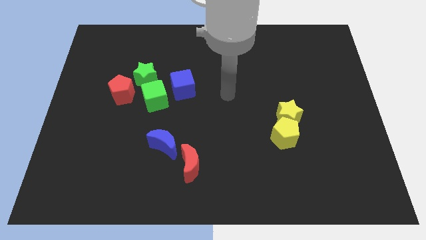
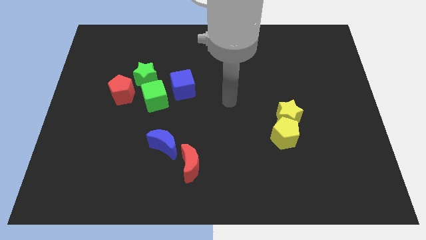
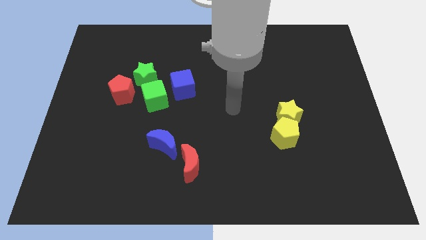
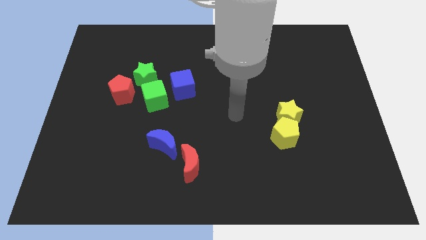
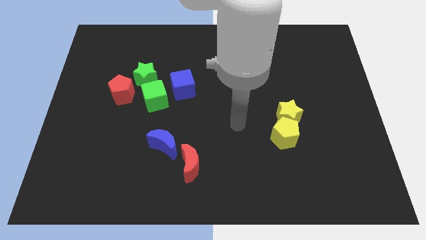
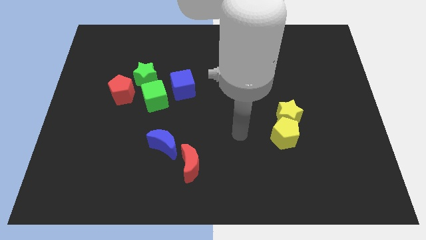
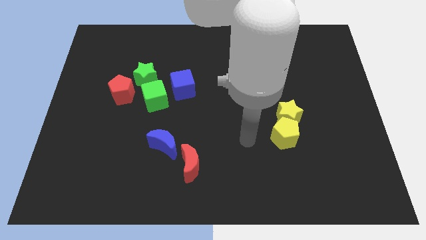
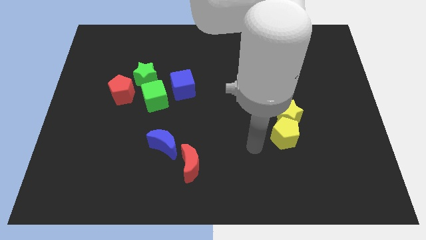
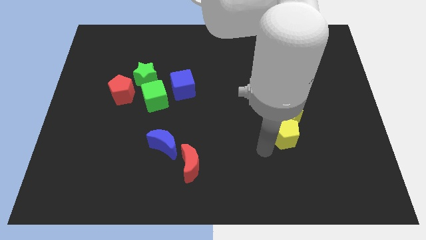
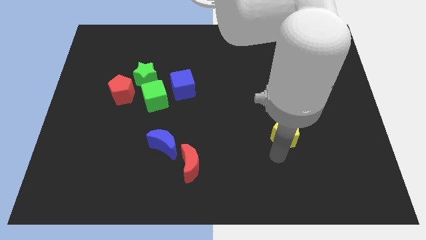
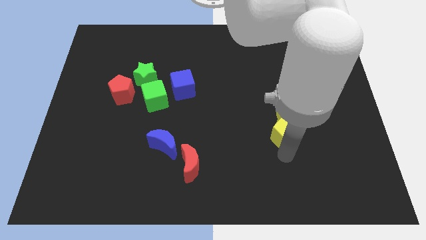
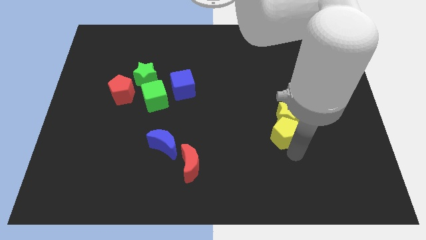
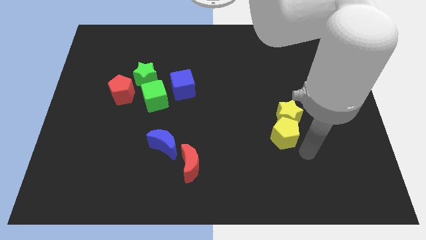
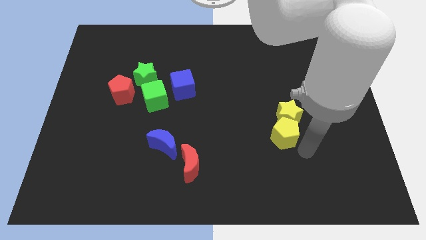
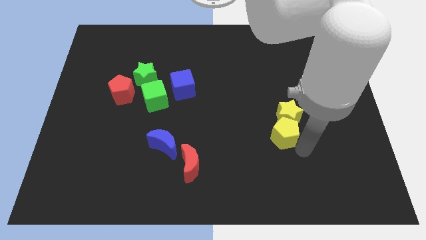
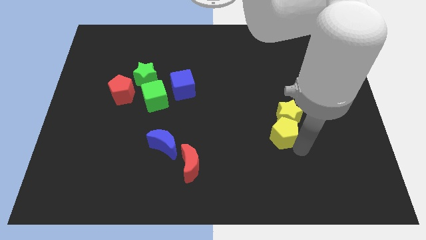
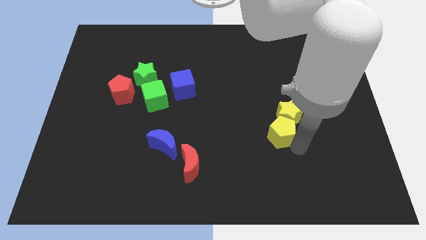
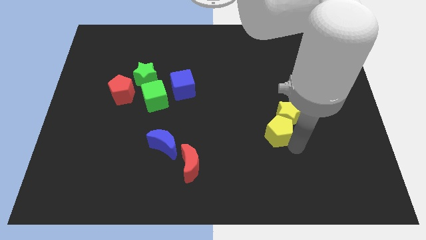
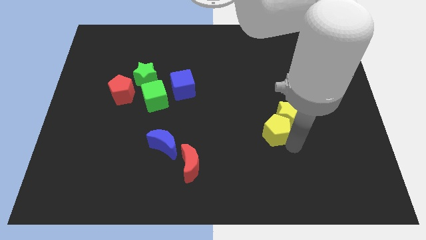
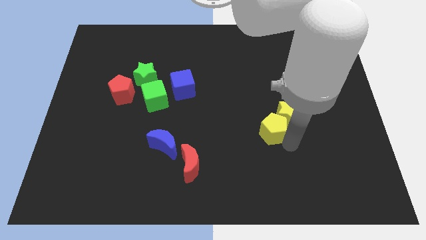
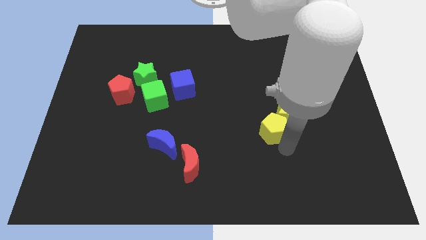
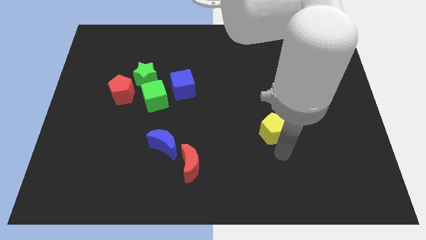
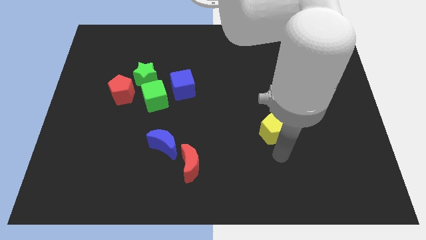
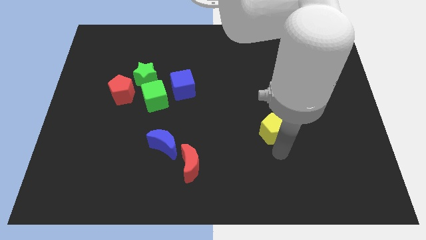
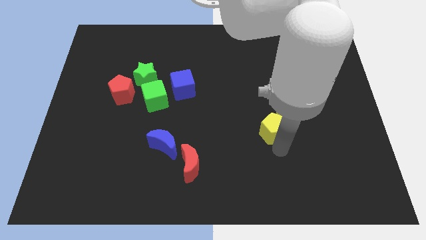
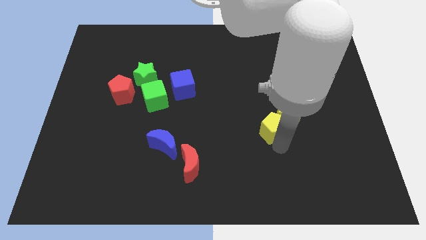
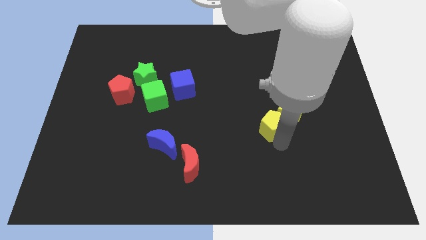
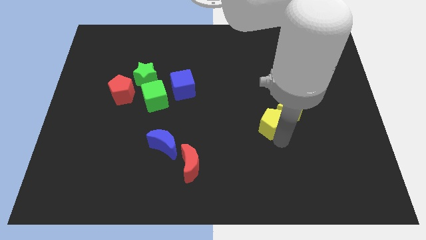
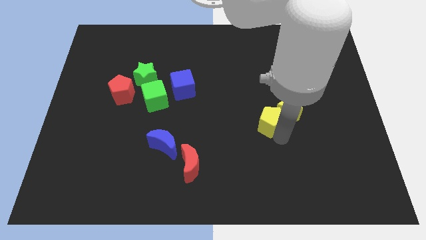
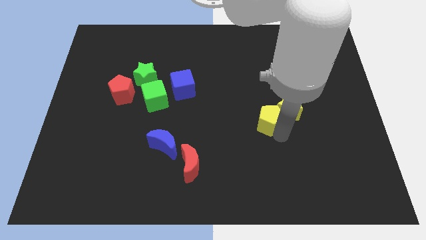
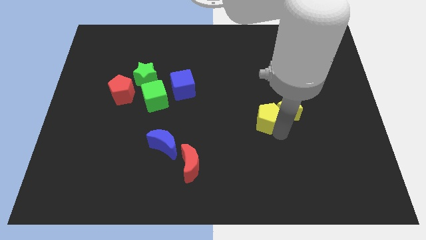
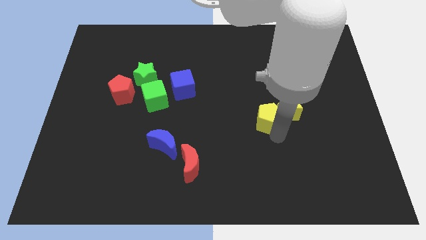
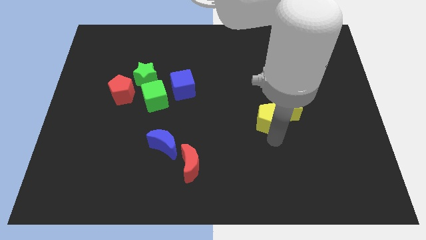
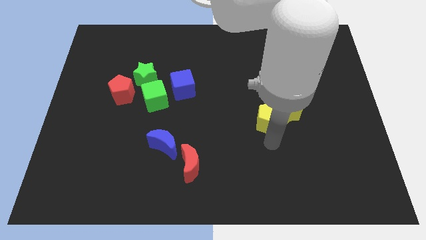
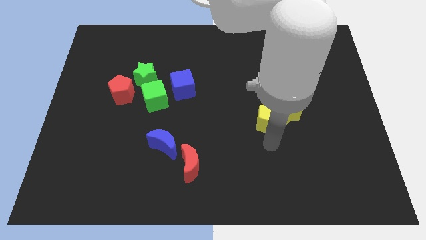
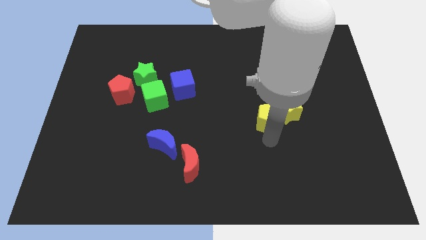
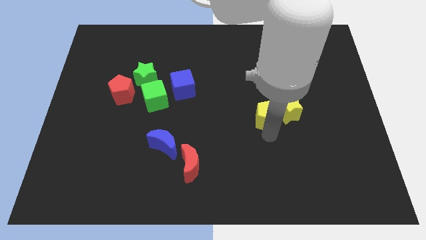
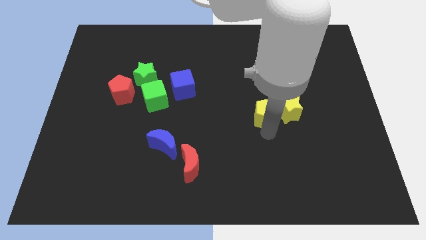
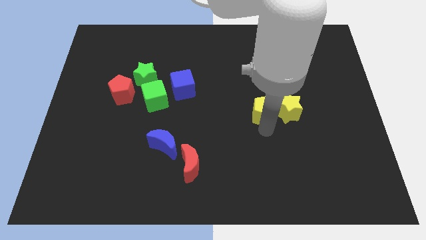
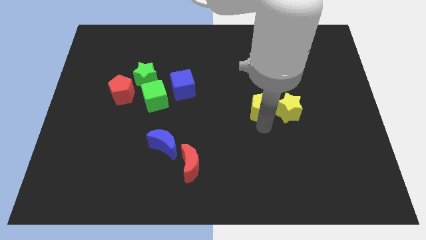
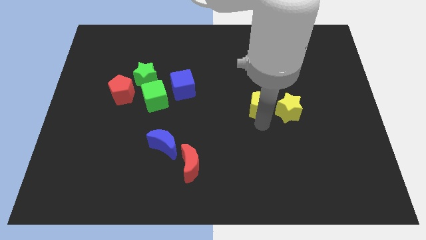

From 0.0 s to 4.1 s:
push the yellow pentagon upwards a bit

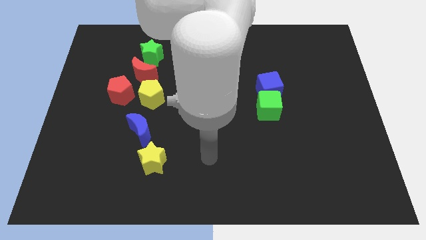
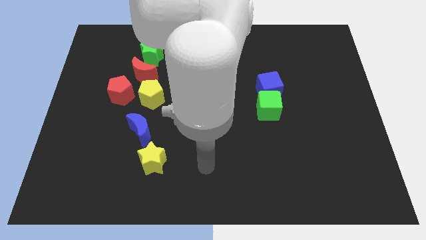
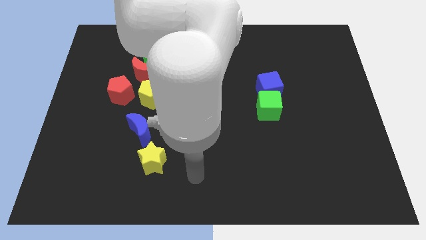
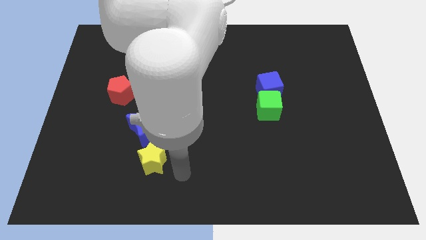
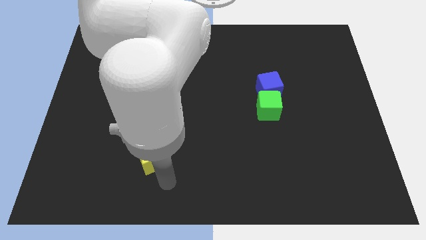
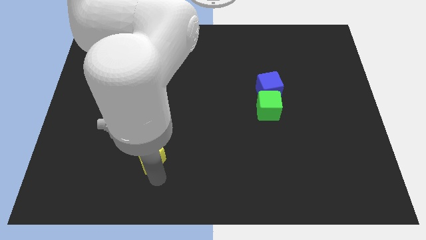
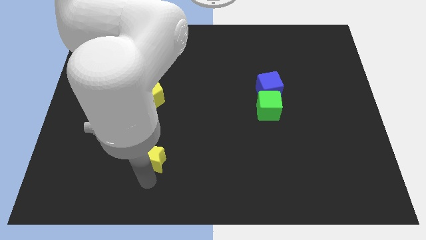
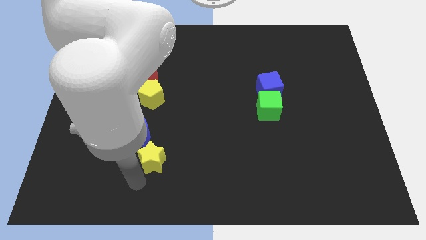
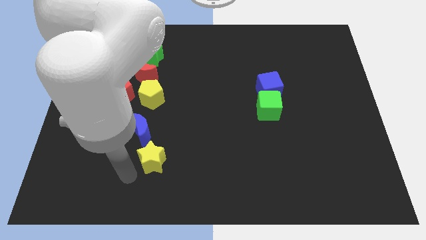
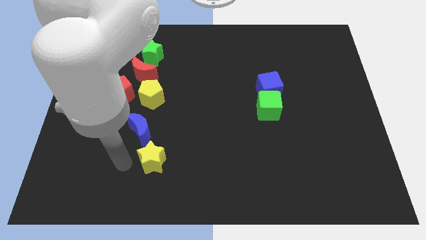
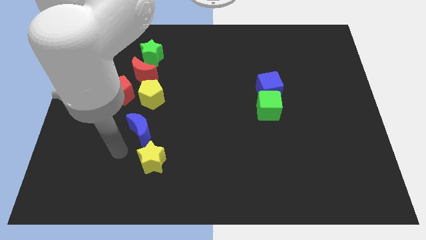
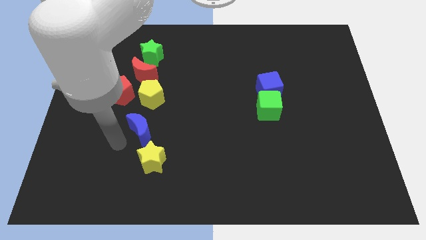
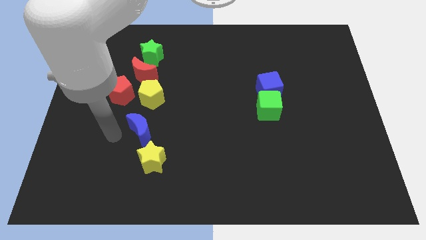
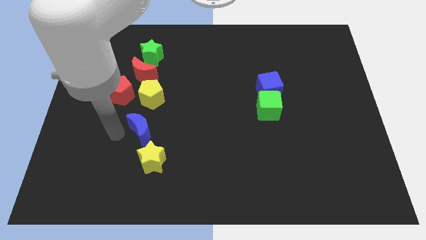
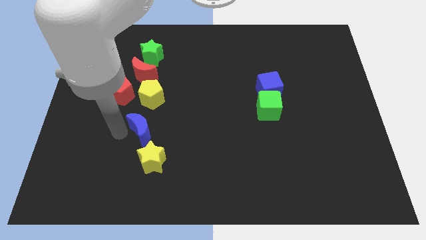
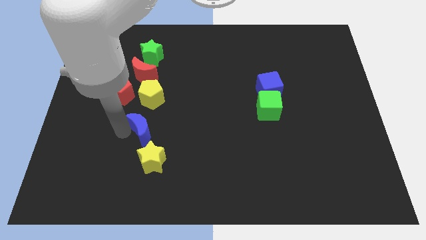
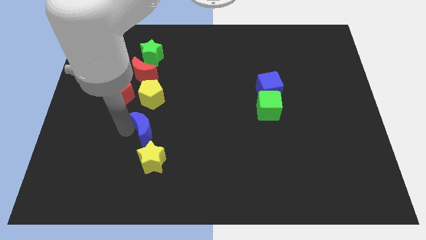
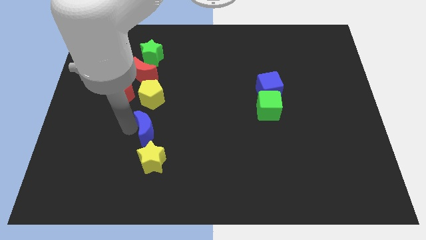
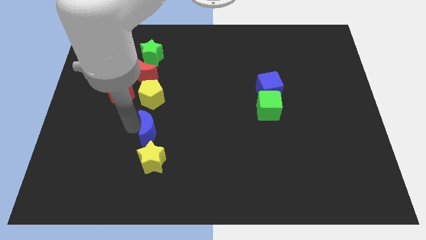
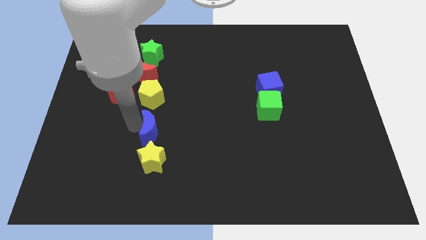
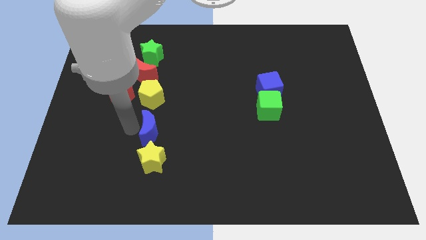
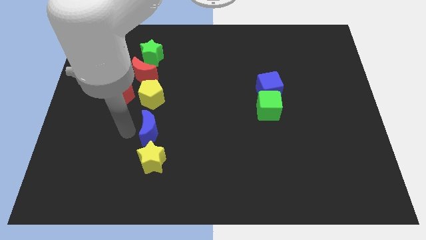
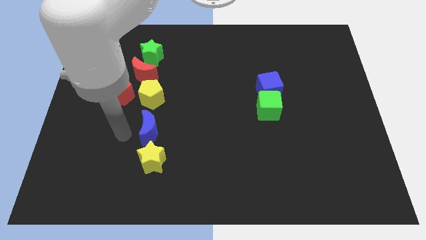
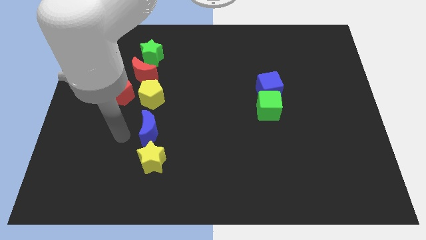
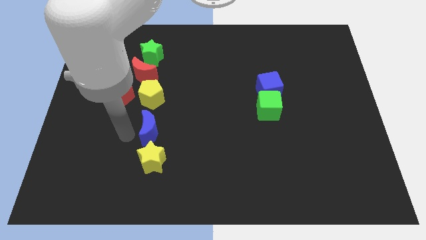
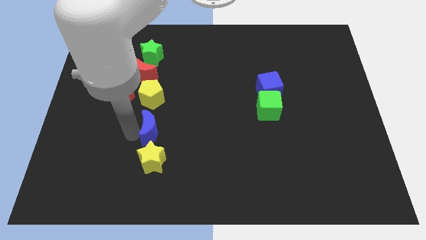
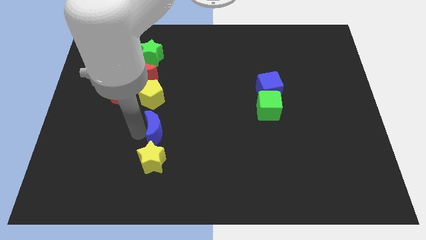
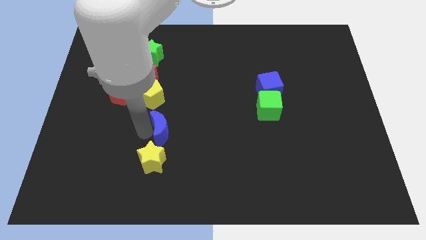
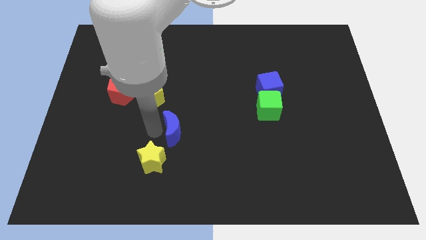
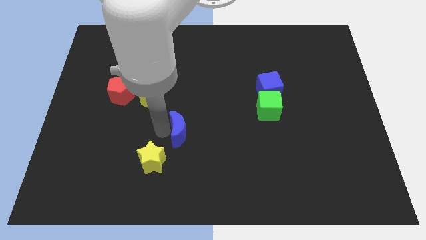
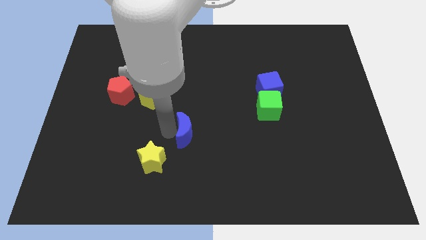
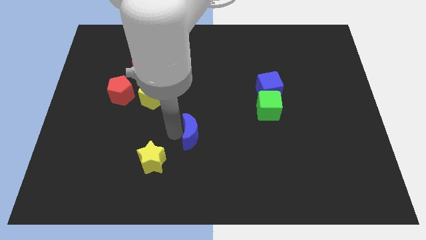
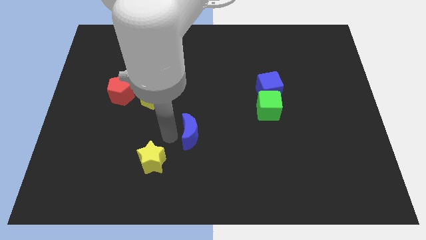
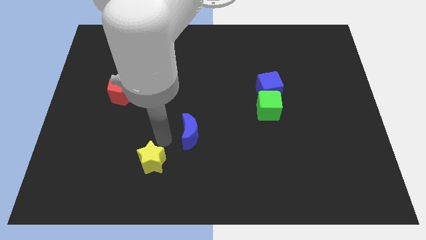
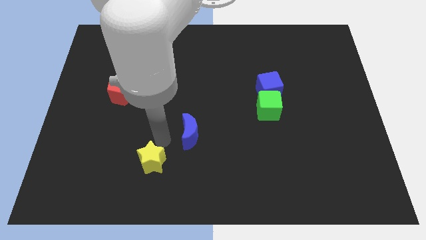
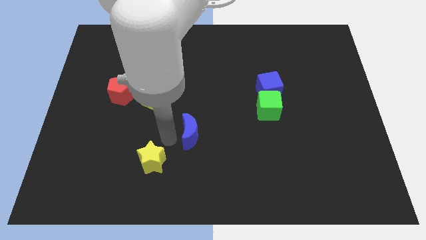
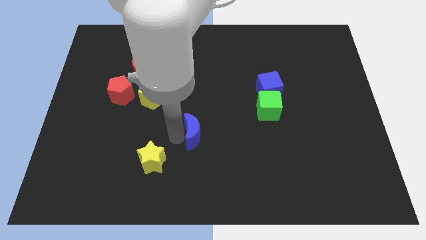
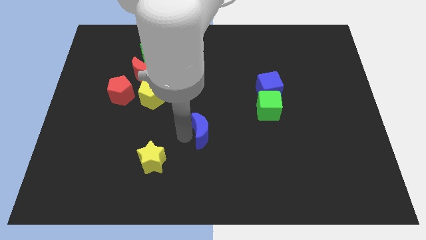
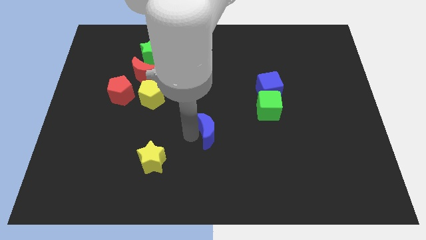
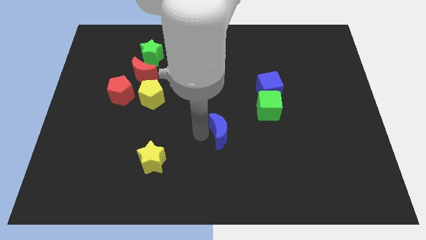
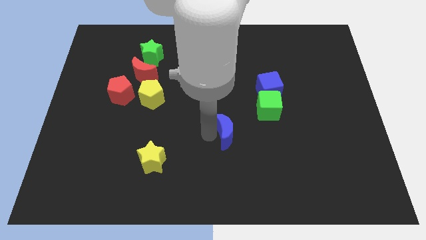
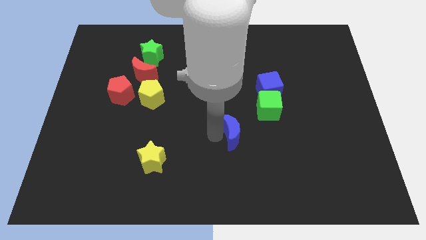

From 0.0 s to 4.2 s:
move the blue moon to the right

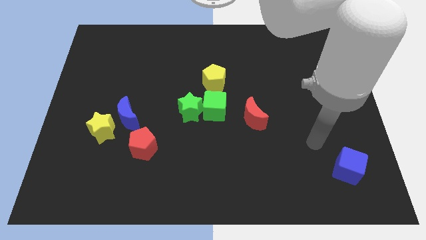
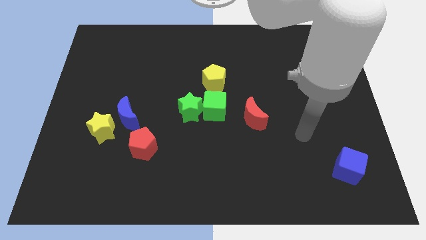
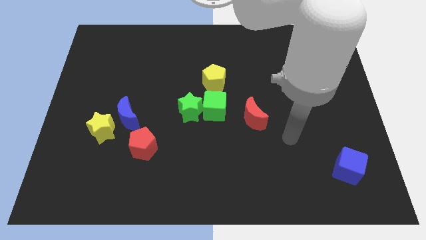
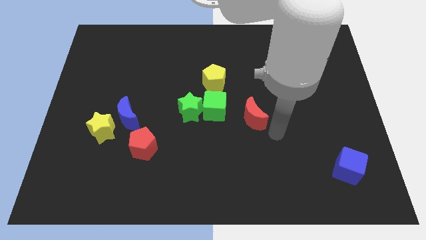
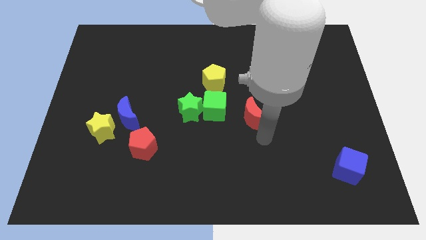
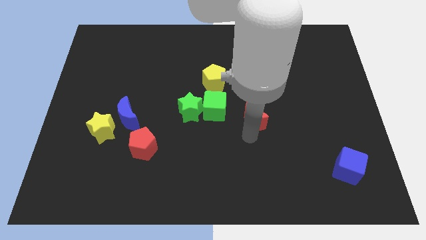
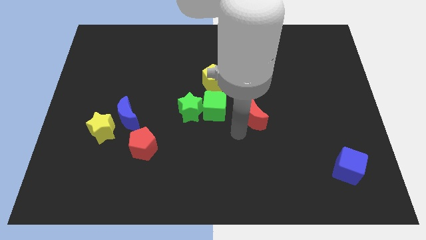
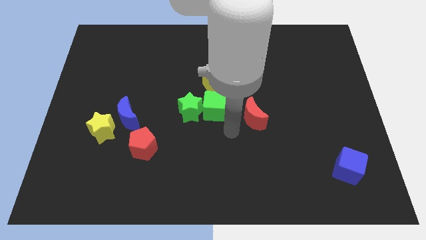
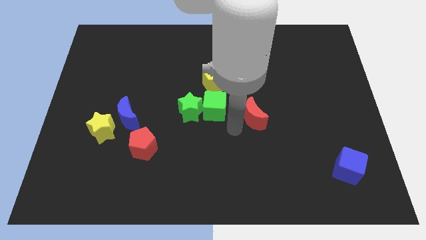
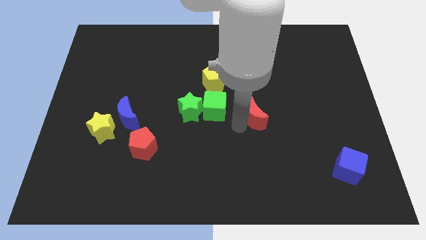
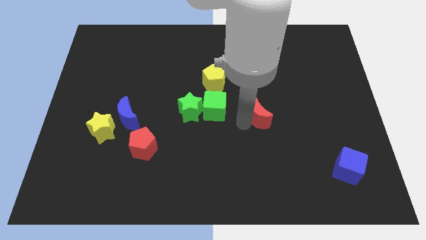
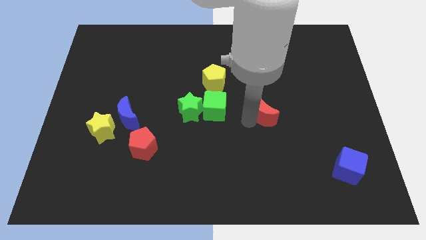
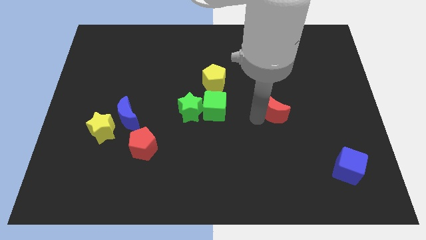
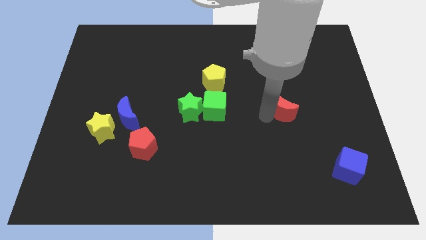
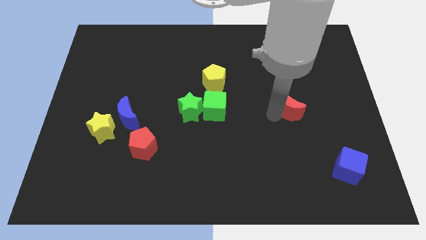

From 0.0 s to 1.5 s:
push the red moon upwards and then right a little bit
